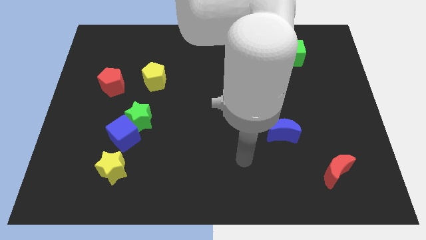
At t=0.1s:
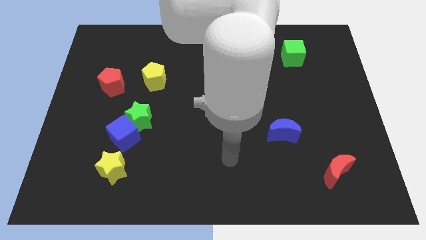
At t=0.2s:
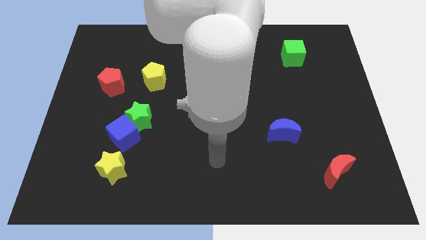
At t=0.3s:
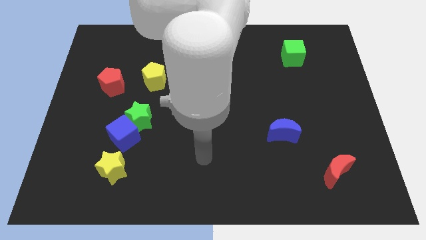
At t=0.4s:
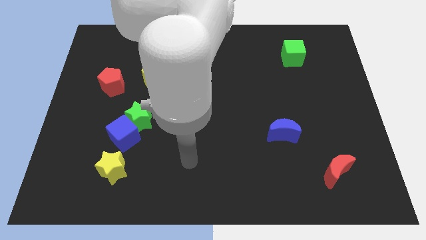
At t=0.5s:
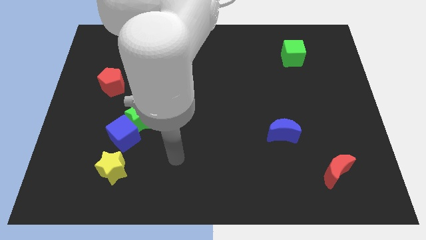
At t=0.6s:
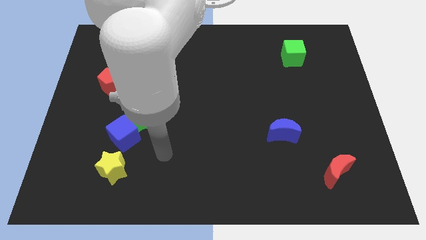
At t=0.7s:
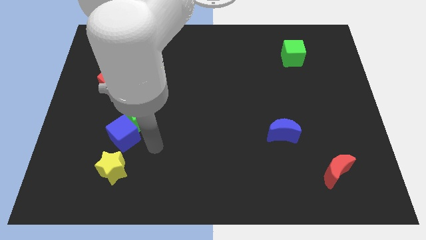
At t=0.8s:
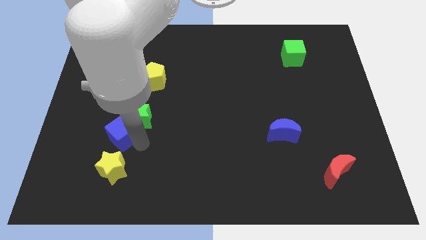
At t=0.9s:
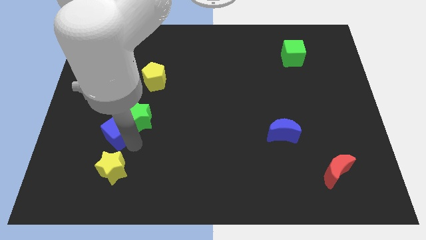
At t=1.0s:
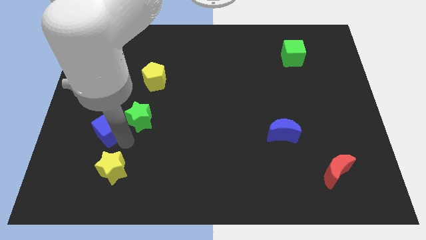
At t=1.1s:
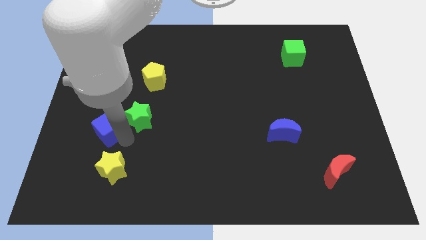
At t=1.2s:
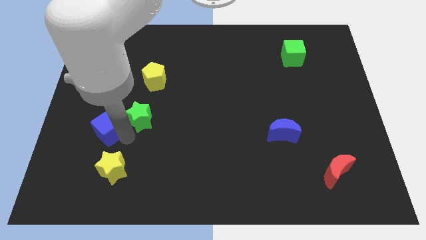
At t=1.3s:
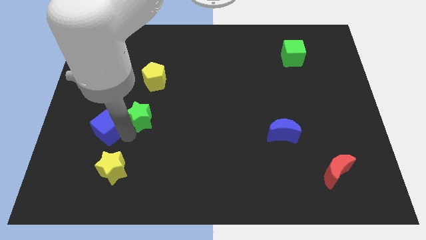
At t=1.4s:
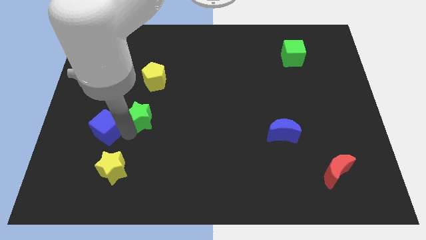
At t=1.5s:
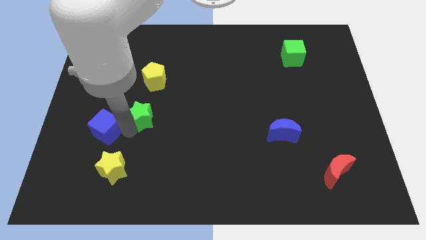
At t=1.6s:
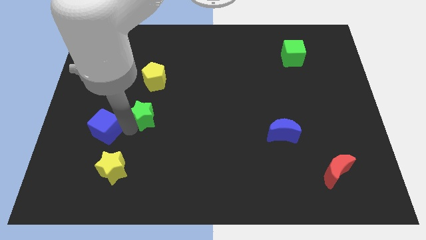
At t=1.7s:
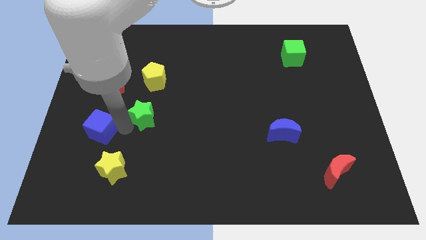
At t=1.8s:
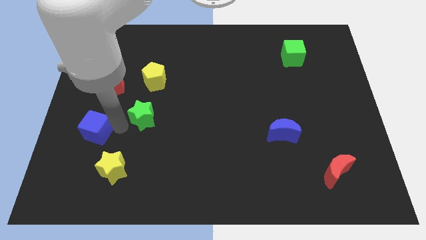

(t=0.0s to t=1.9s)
move the green star away from the blue cube

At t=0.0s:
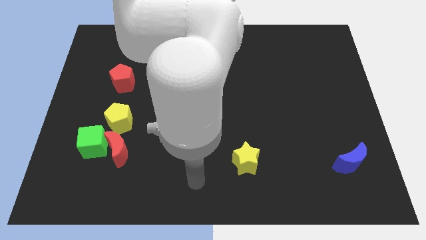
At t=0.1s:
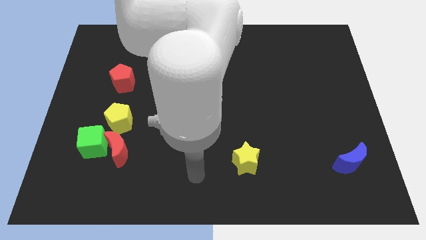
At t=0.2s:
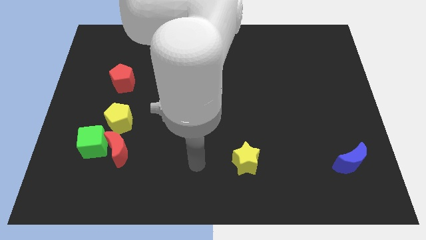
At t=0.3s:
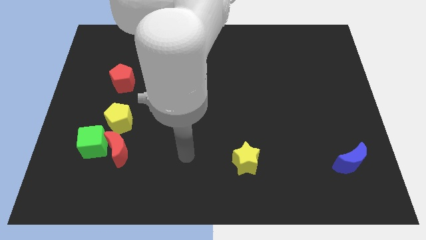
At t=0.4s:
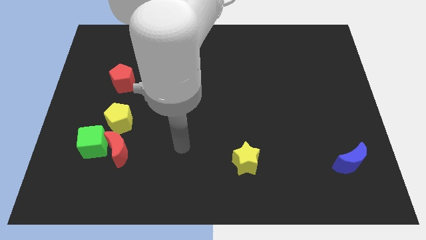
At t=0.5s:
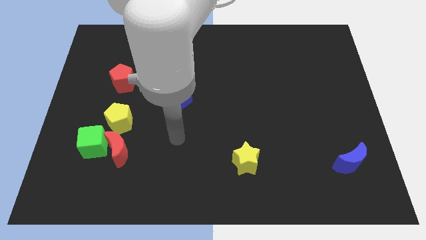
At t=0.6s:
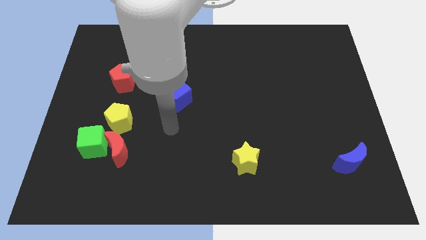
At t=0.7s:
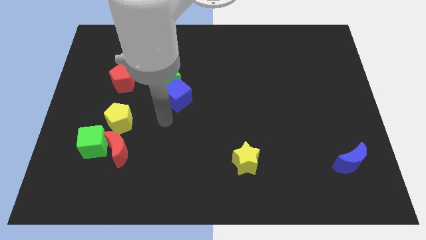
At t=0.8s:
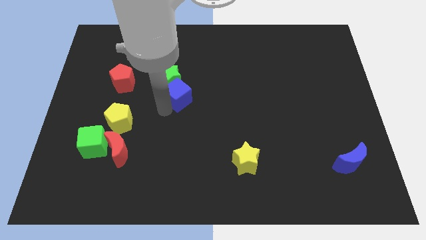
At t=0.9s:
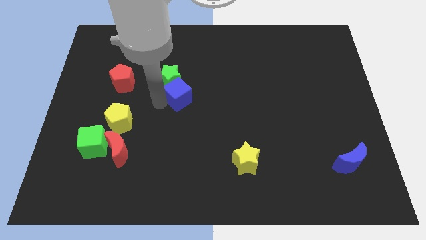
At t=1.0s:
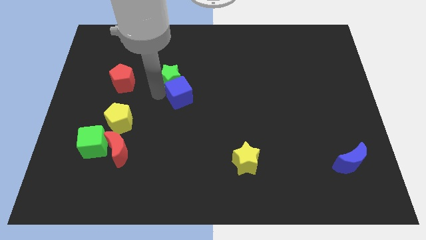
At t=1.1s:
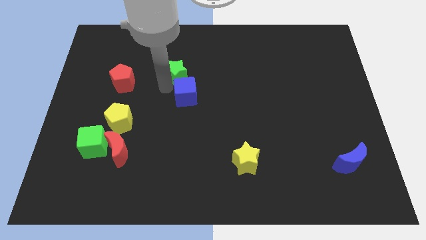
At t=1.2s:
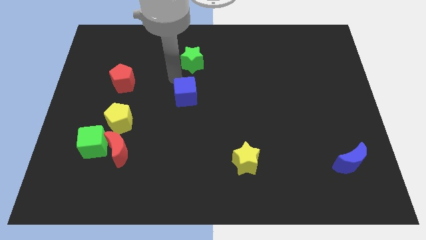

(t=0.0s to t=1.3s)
pull the blue cube apart from the green star

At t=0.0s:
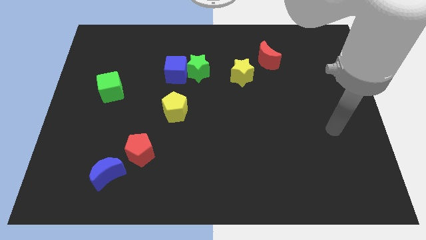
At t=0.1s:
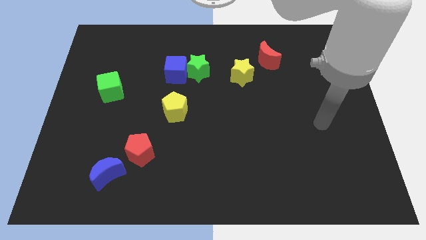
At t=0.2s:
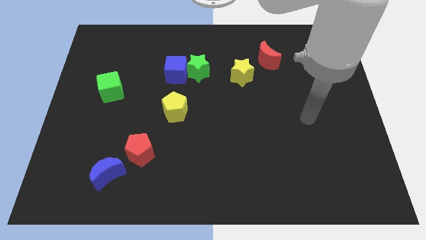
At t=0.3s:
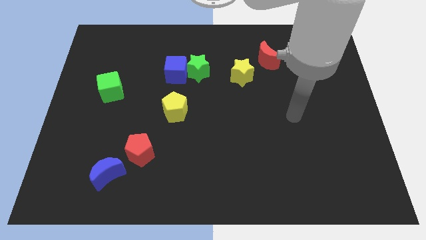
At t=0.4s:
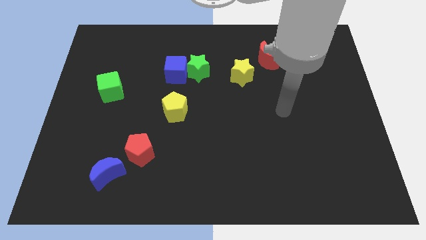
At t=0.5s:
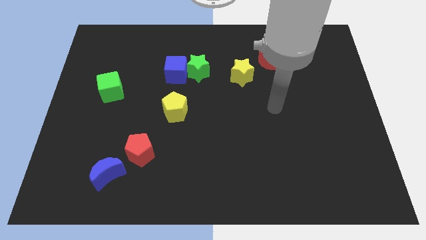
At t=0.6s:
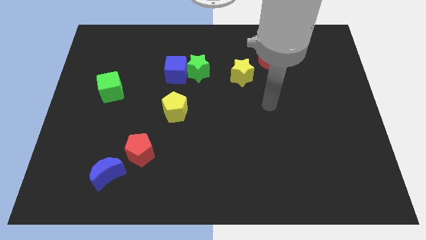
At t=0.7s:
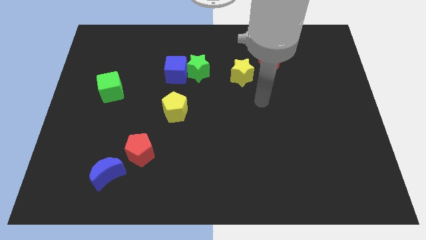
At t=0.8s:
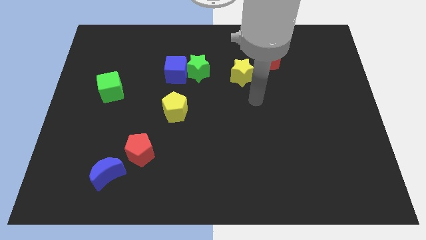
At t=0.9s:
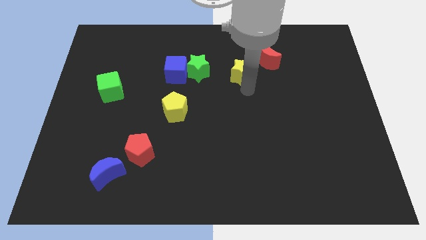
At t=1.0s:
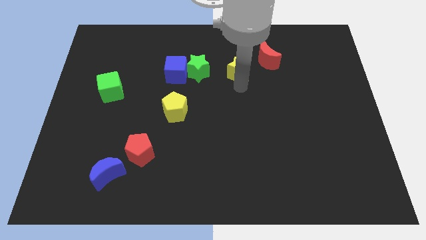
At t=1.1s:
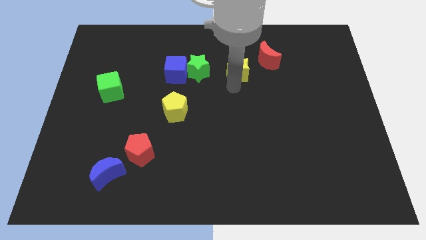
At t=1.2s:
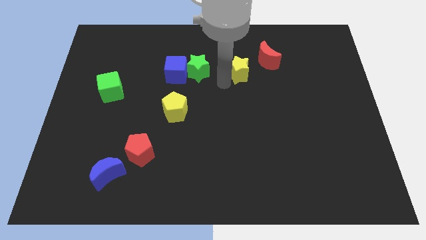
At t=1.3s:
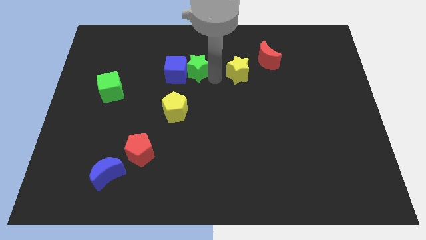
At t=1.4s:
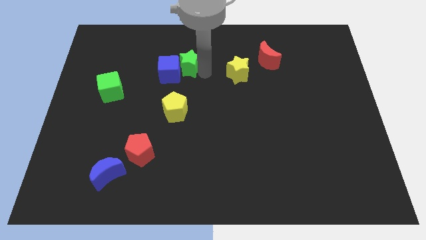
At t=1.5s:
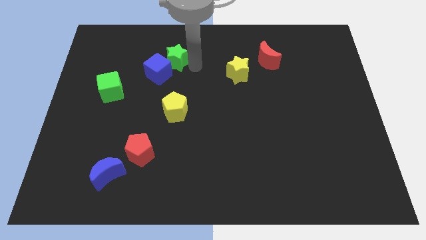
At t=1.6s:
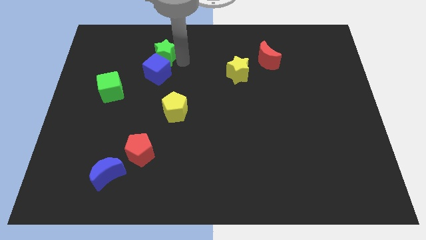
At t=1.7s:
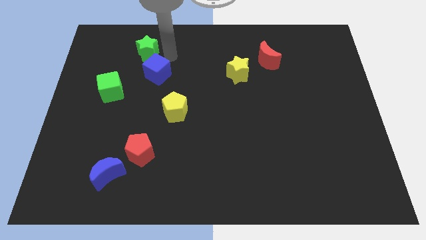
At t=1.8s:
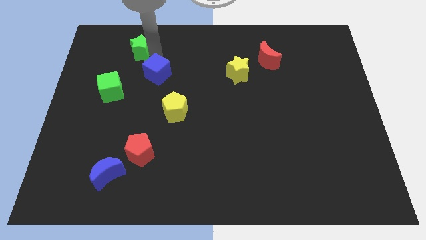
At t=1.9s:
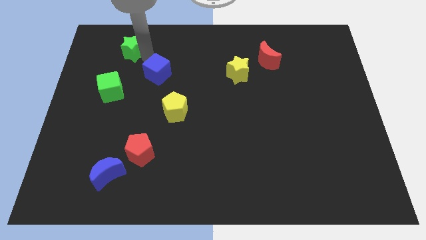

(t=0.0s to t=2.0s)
move the blue cube away from the green star

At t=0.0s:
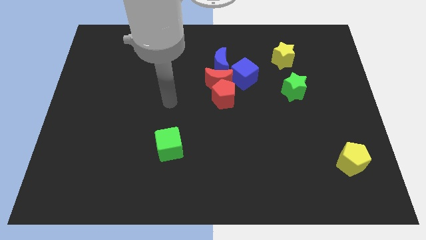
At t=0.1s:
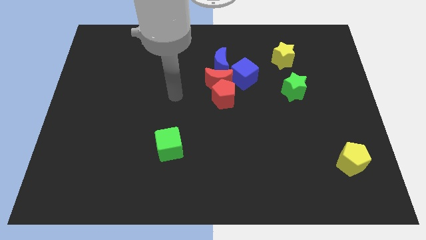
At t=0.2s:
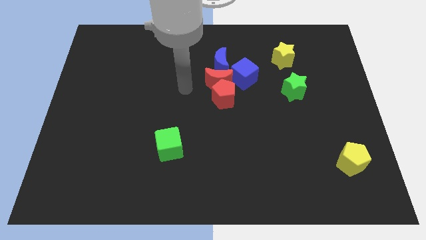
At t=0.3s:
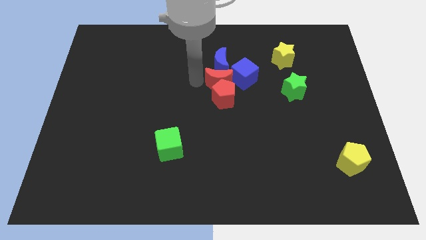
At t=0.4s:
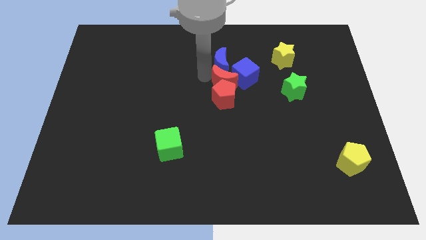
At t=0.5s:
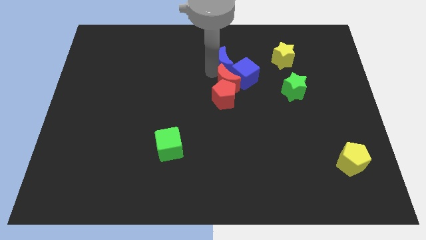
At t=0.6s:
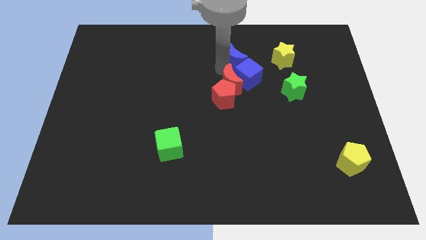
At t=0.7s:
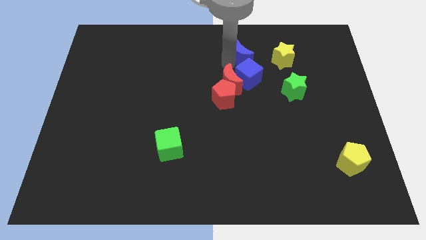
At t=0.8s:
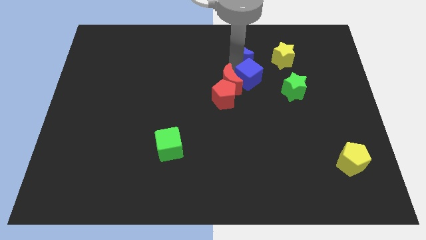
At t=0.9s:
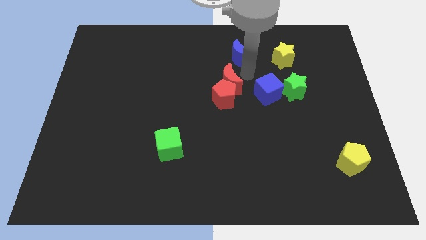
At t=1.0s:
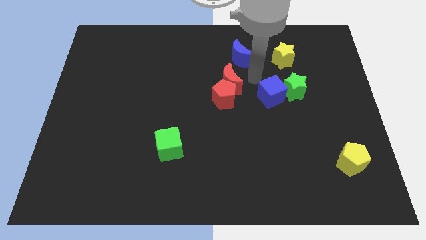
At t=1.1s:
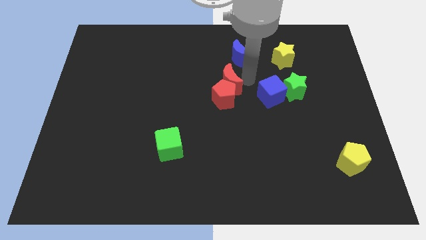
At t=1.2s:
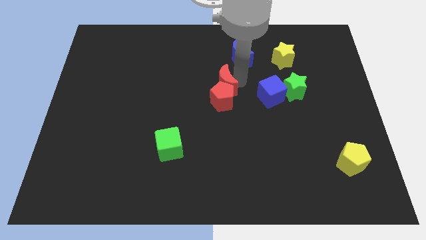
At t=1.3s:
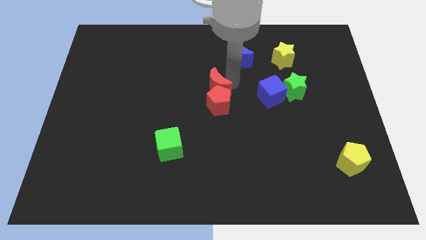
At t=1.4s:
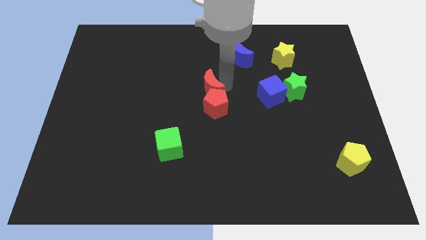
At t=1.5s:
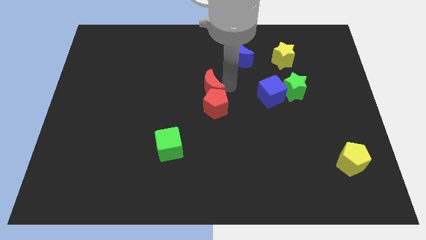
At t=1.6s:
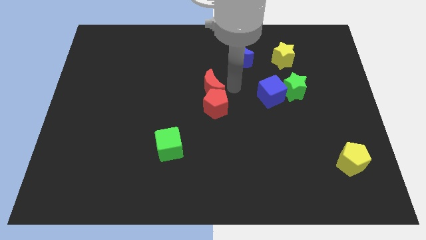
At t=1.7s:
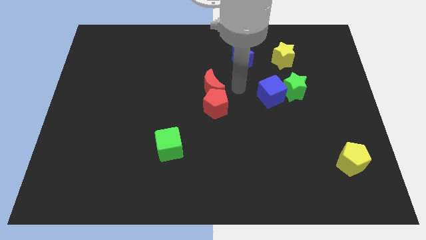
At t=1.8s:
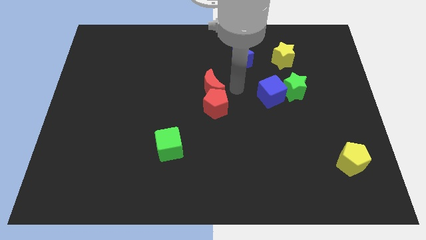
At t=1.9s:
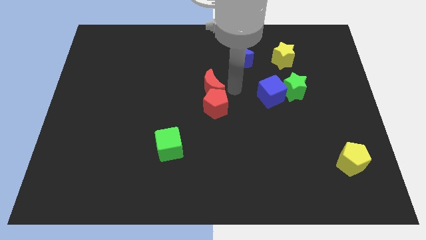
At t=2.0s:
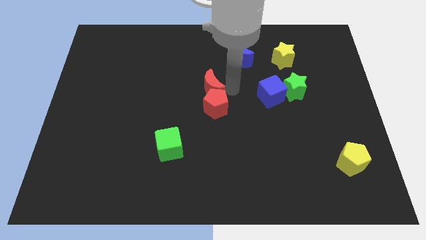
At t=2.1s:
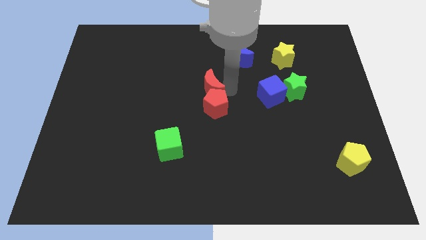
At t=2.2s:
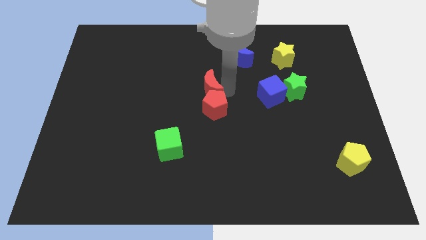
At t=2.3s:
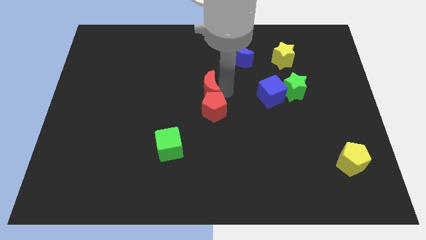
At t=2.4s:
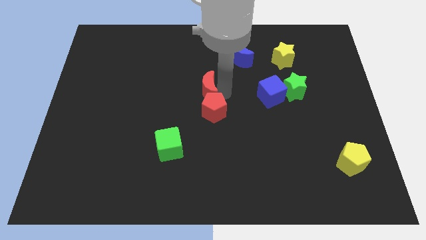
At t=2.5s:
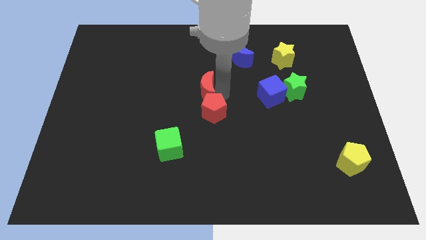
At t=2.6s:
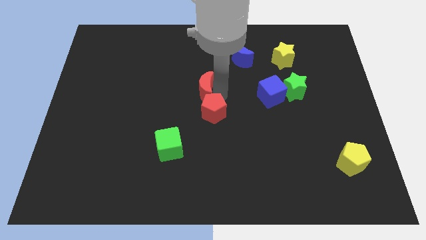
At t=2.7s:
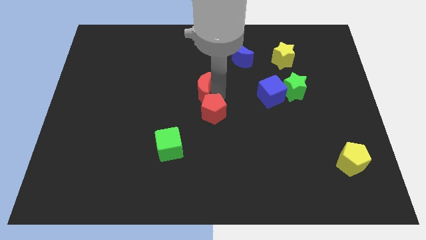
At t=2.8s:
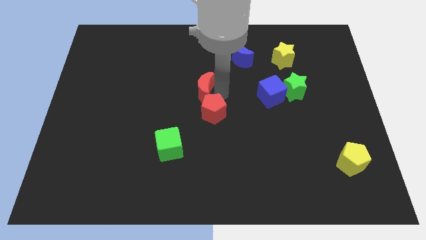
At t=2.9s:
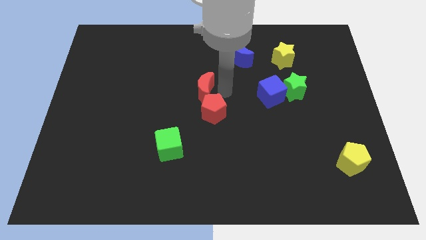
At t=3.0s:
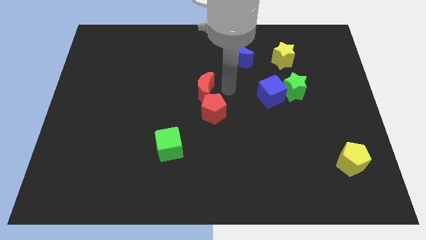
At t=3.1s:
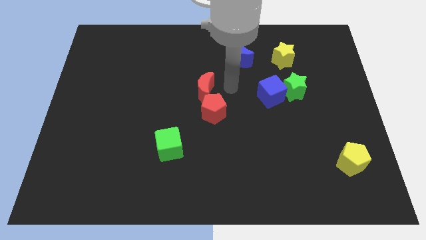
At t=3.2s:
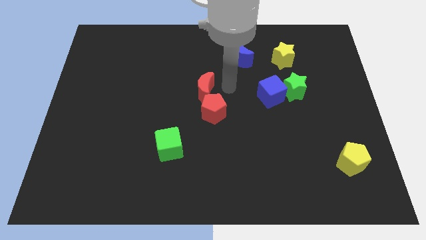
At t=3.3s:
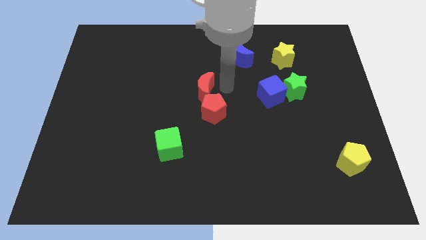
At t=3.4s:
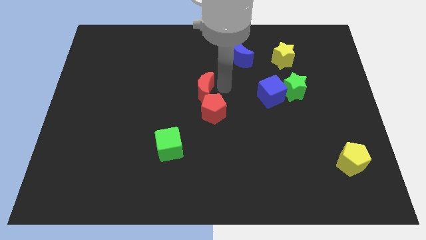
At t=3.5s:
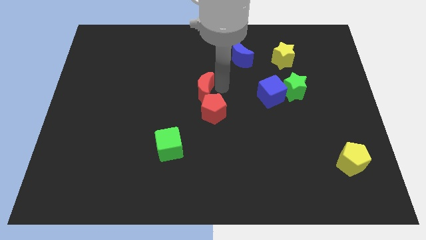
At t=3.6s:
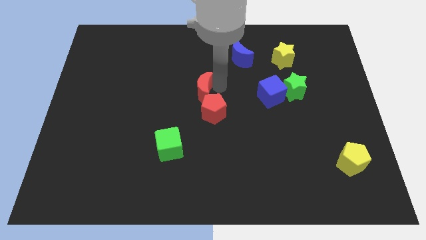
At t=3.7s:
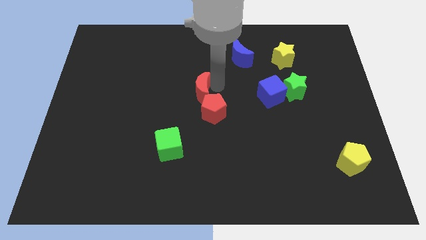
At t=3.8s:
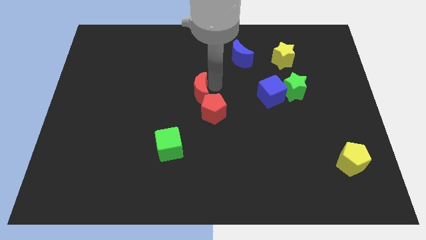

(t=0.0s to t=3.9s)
separate the red moon from the red pentagon, blue moon, and blue cube

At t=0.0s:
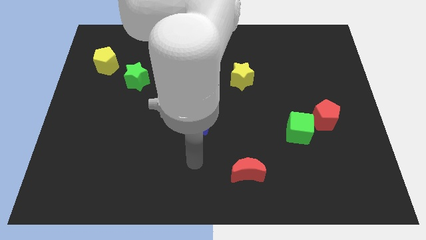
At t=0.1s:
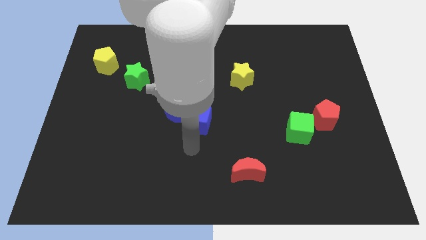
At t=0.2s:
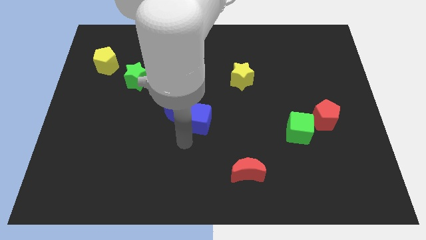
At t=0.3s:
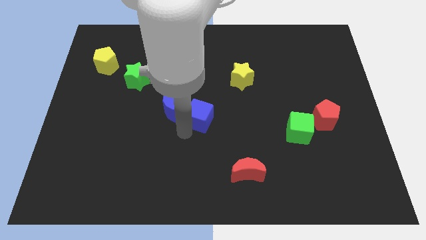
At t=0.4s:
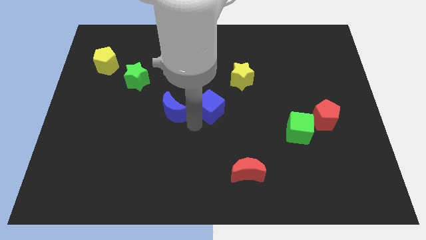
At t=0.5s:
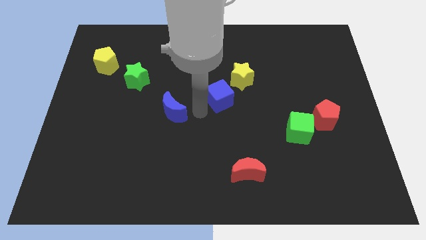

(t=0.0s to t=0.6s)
pull the blue moon apart from the blue cube
